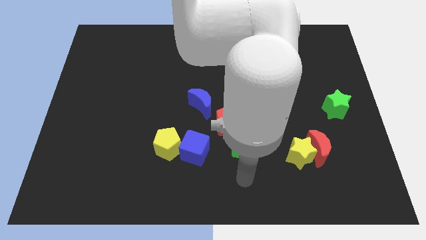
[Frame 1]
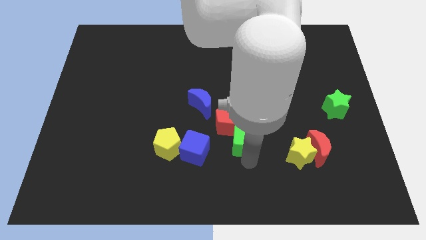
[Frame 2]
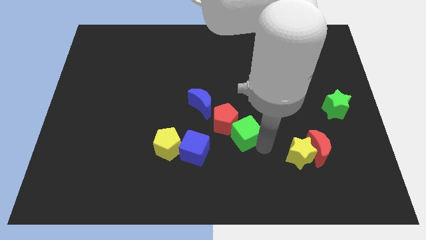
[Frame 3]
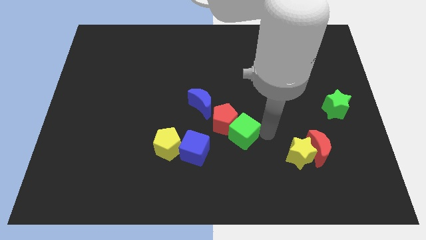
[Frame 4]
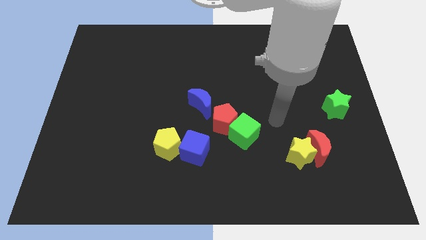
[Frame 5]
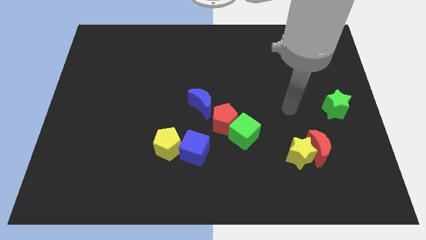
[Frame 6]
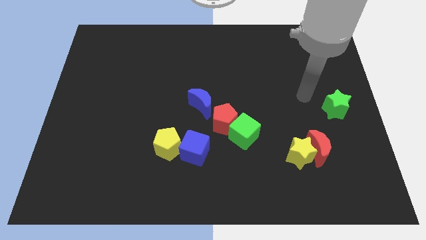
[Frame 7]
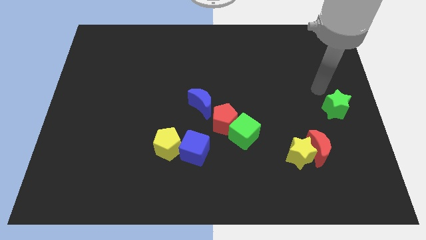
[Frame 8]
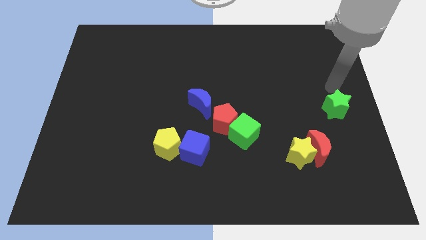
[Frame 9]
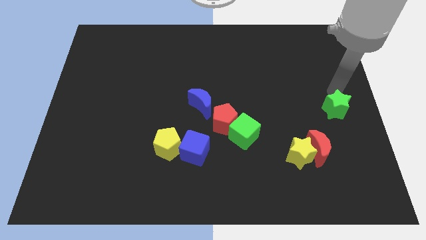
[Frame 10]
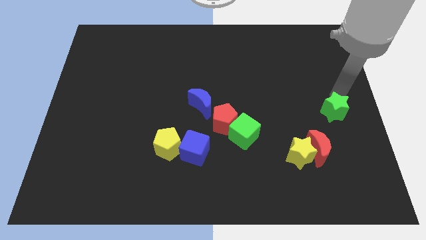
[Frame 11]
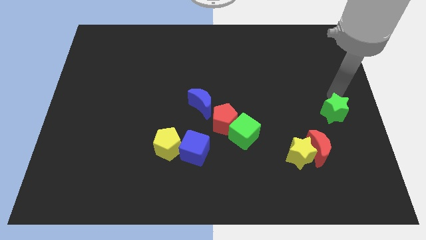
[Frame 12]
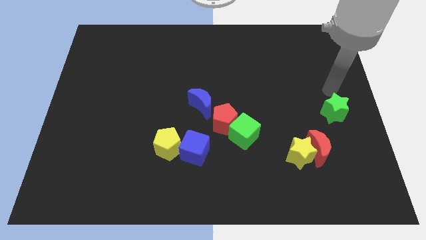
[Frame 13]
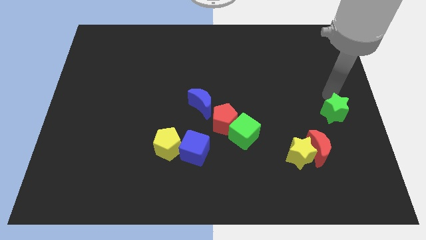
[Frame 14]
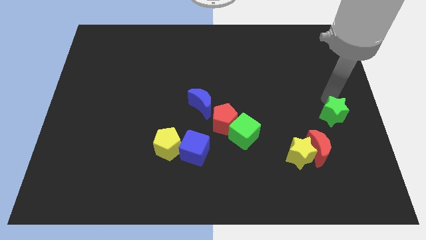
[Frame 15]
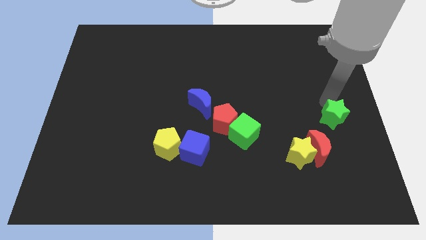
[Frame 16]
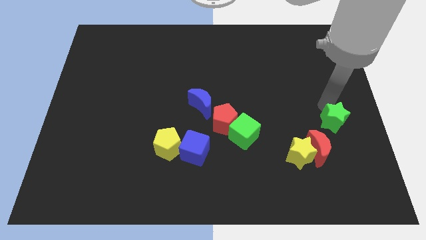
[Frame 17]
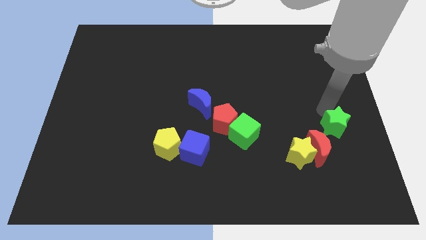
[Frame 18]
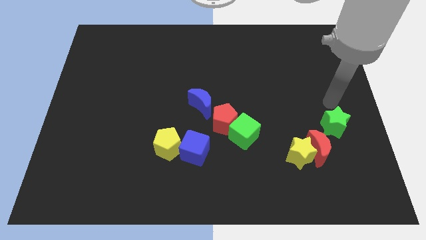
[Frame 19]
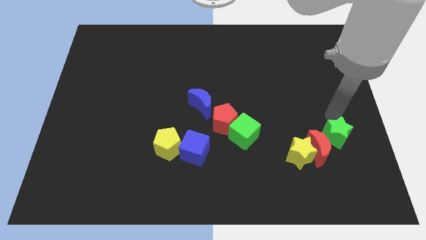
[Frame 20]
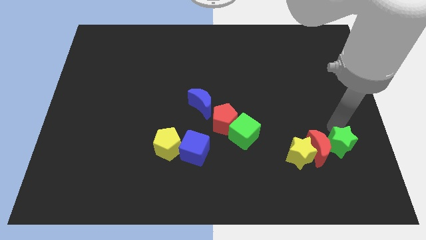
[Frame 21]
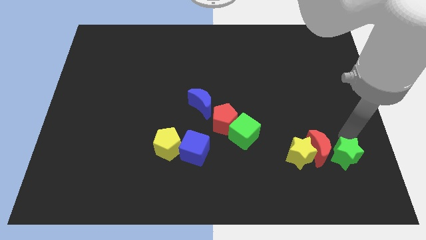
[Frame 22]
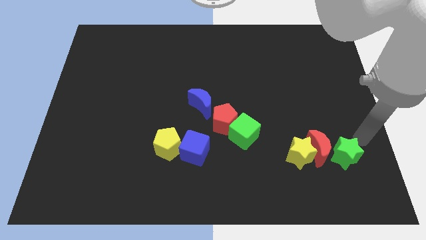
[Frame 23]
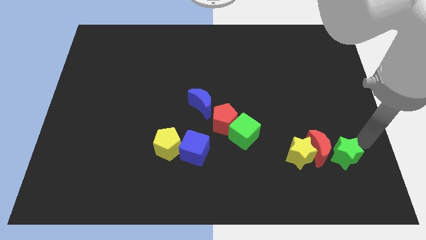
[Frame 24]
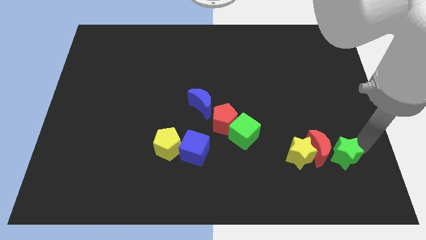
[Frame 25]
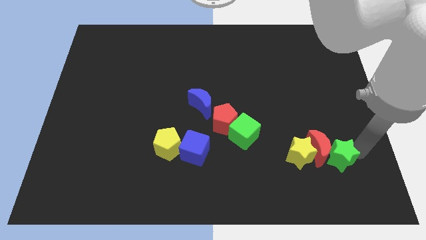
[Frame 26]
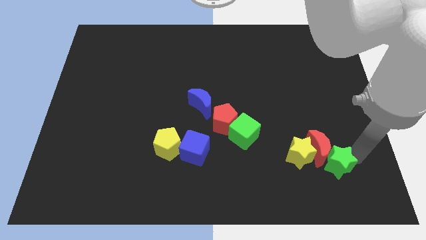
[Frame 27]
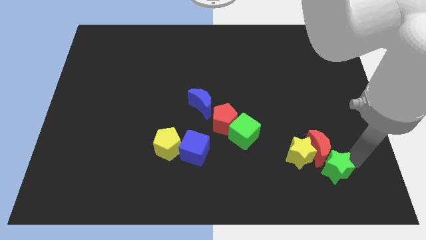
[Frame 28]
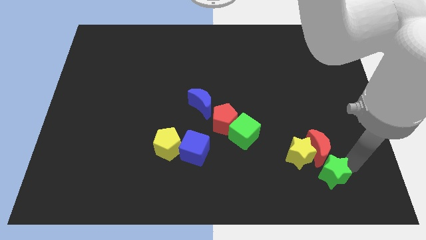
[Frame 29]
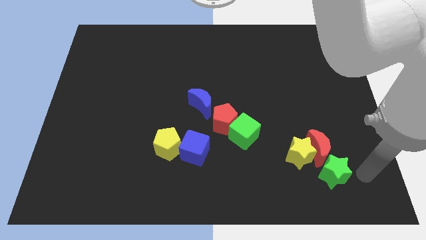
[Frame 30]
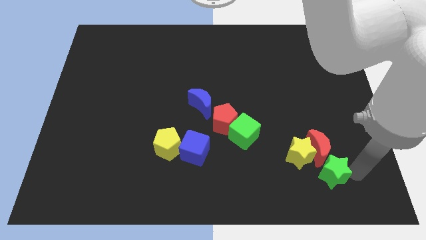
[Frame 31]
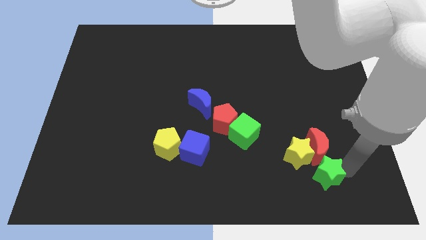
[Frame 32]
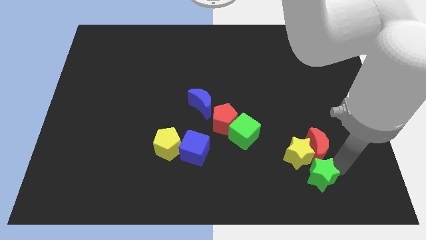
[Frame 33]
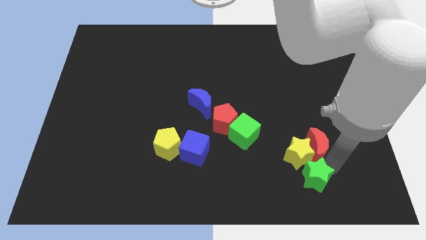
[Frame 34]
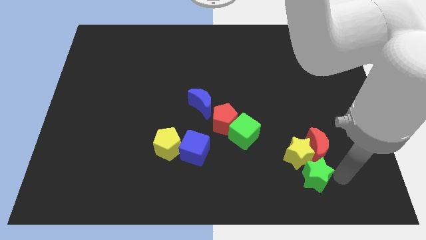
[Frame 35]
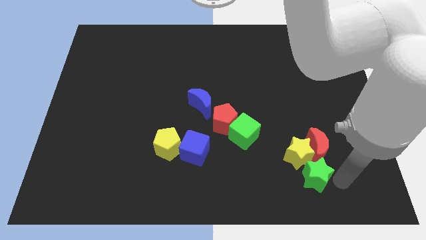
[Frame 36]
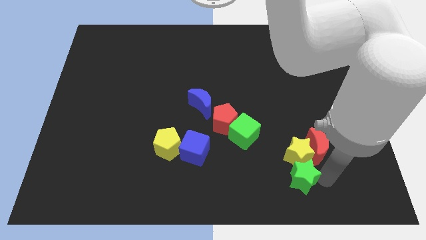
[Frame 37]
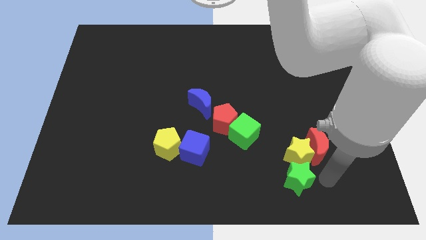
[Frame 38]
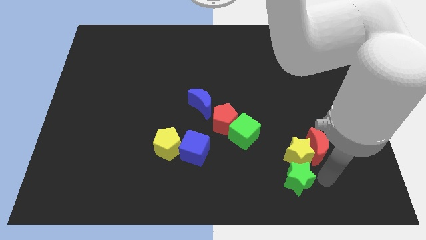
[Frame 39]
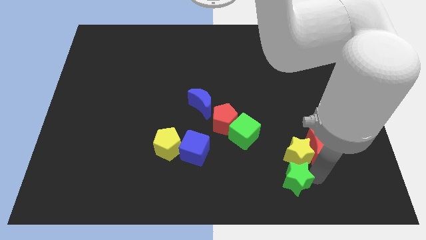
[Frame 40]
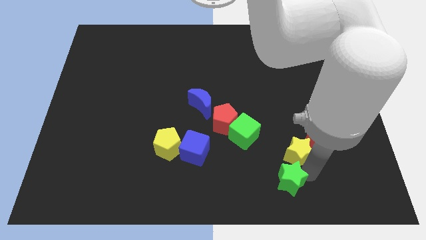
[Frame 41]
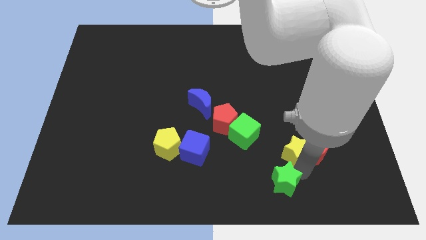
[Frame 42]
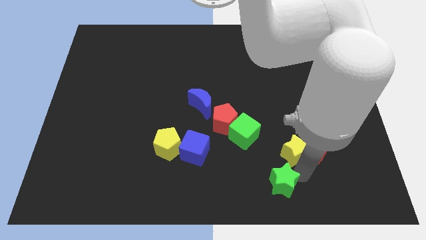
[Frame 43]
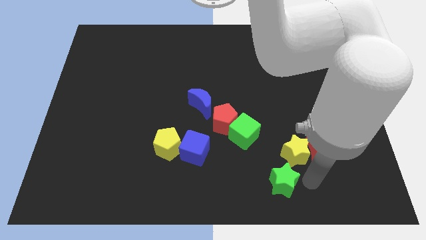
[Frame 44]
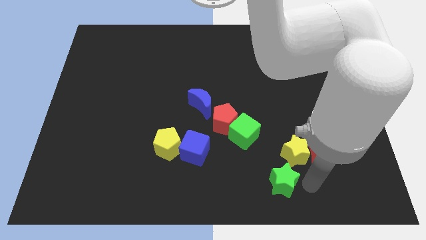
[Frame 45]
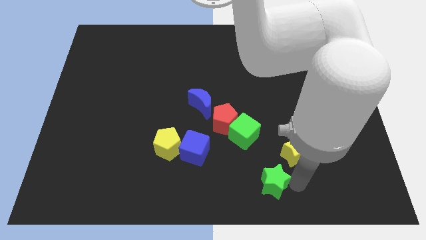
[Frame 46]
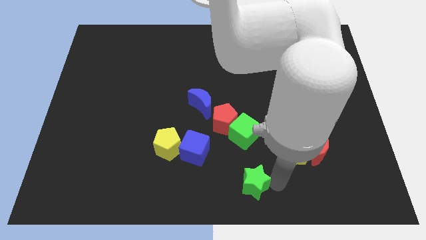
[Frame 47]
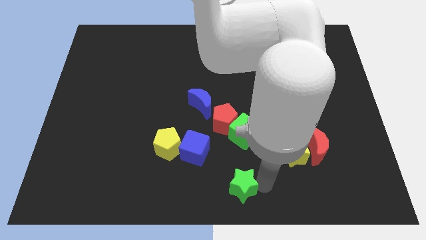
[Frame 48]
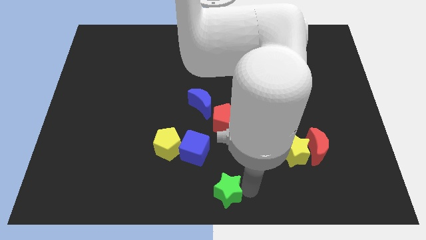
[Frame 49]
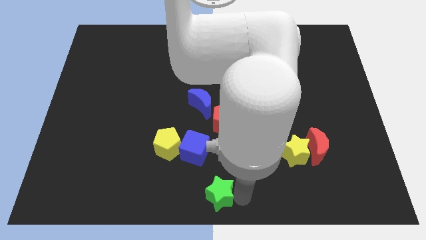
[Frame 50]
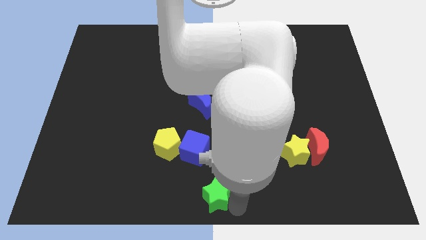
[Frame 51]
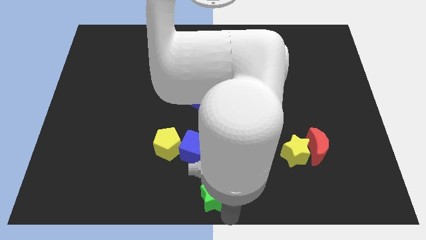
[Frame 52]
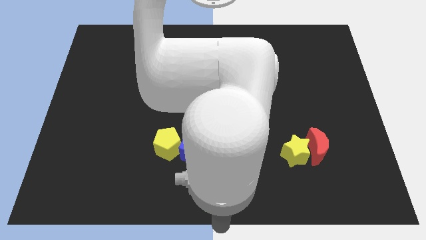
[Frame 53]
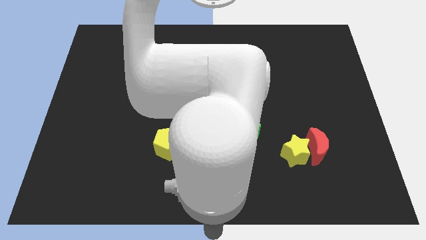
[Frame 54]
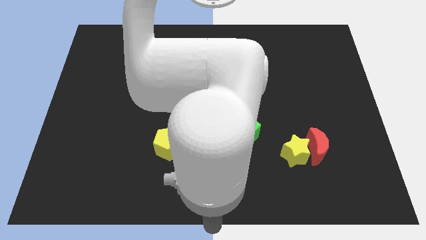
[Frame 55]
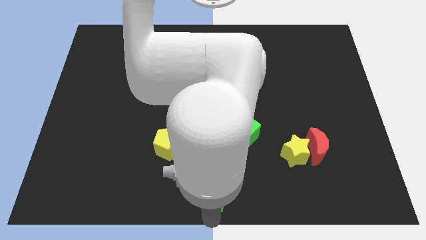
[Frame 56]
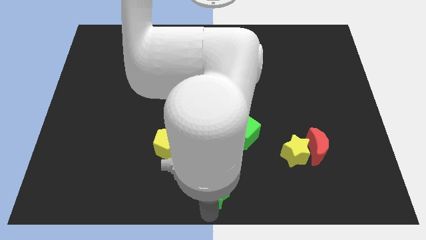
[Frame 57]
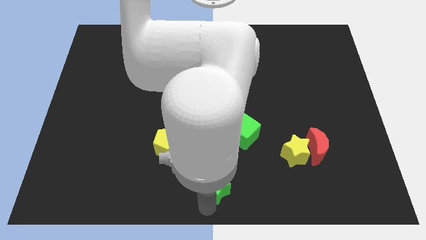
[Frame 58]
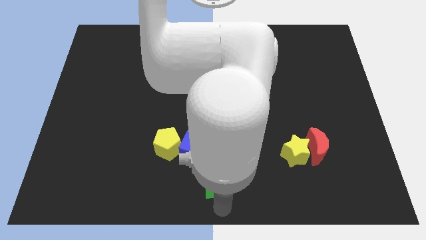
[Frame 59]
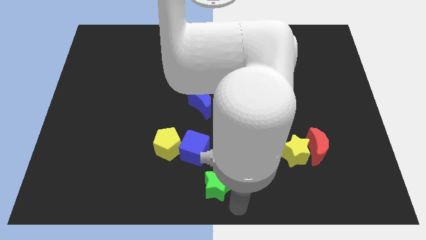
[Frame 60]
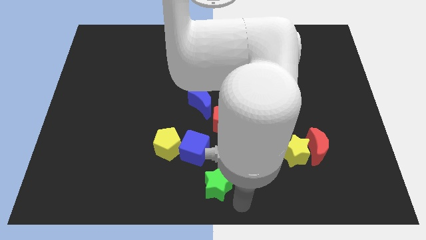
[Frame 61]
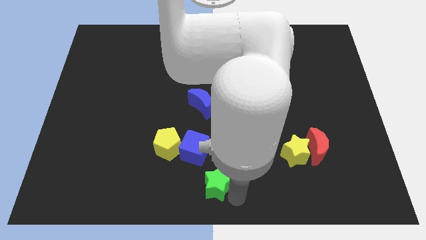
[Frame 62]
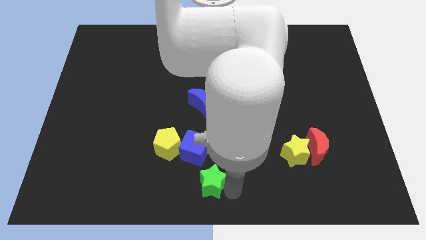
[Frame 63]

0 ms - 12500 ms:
push the green star to the bottom right side of the yellow pentagon

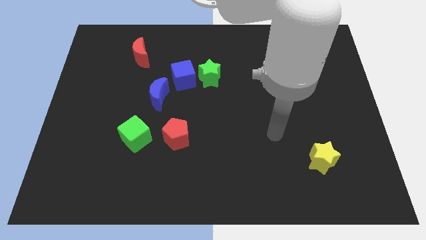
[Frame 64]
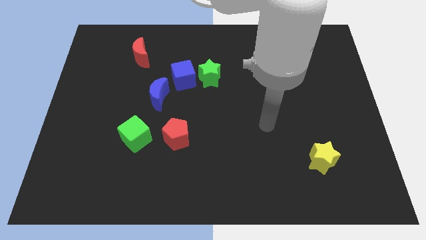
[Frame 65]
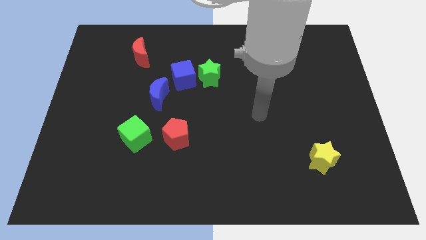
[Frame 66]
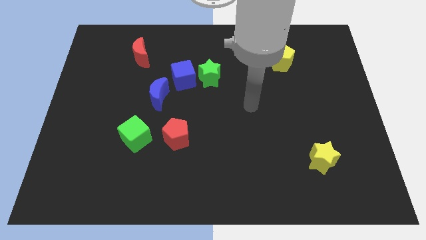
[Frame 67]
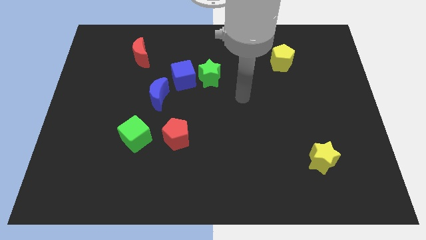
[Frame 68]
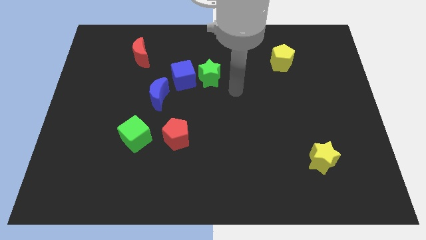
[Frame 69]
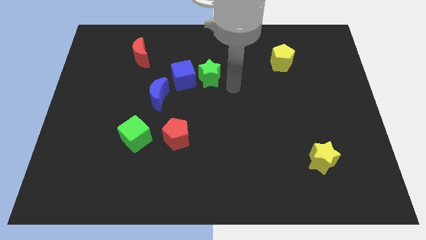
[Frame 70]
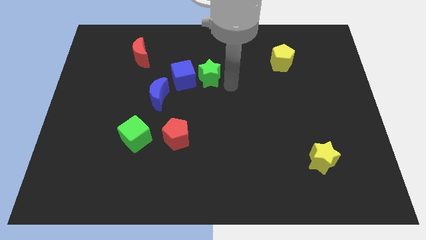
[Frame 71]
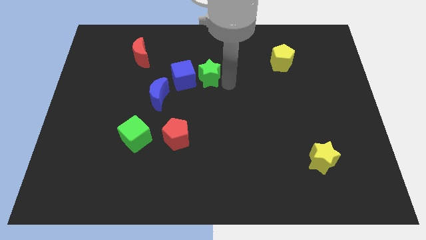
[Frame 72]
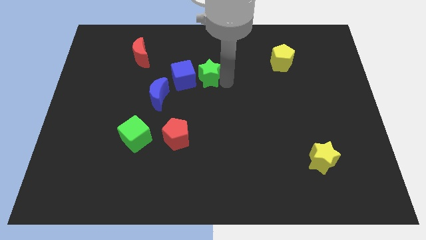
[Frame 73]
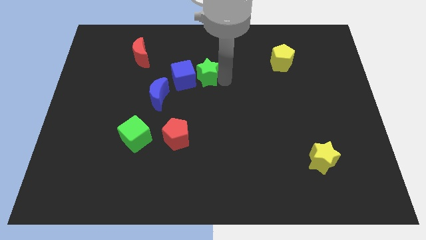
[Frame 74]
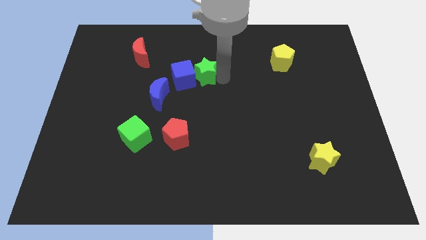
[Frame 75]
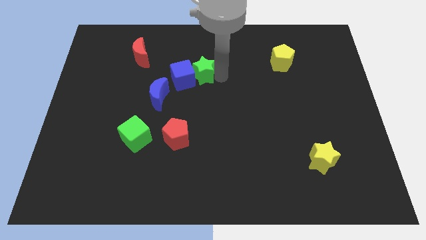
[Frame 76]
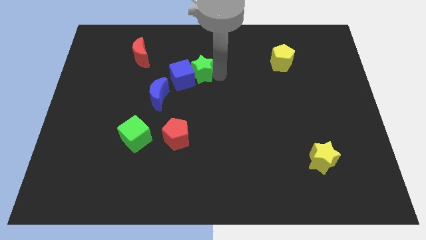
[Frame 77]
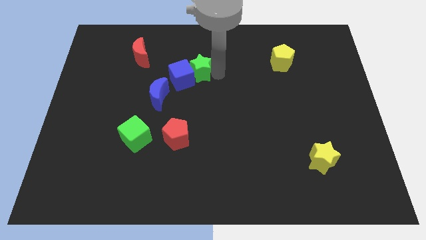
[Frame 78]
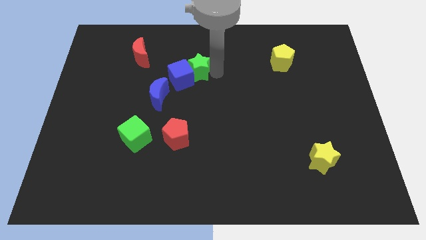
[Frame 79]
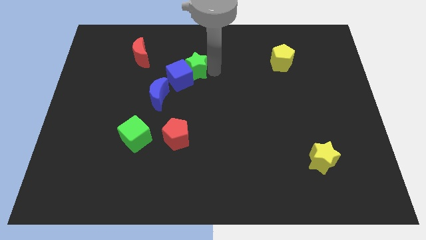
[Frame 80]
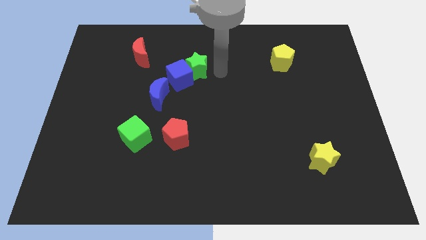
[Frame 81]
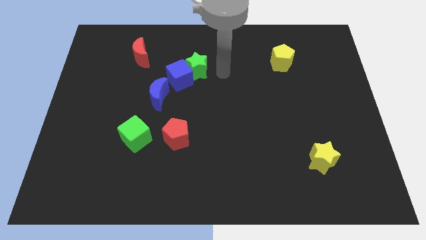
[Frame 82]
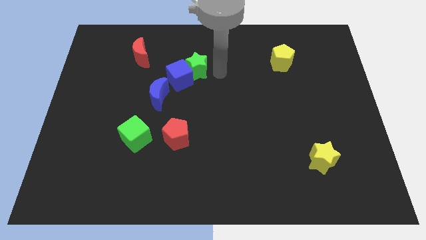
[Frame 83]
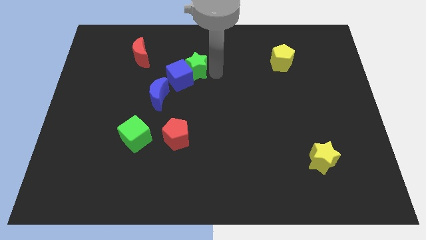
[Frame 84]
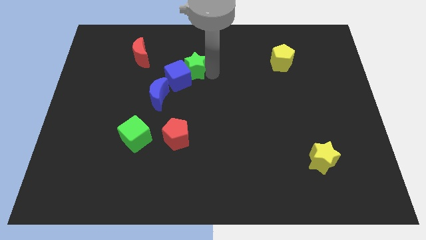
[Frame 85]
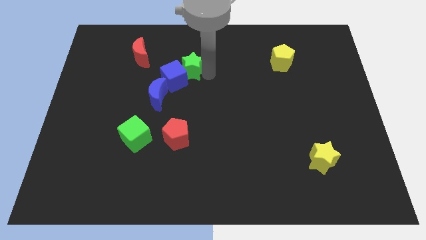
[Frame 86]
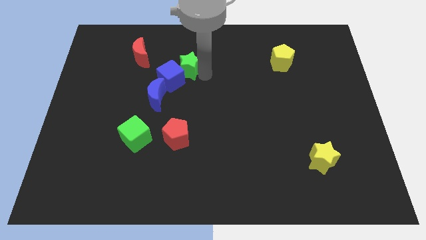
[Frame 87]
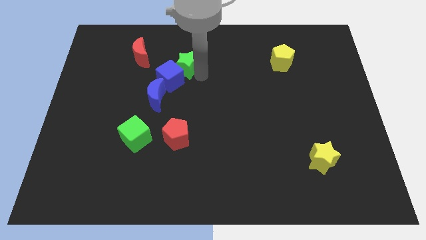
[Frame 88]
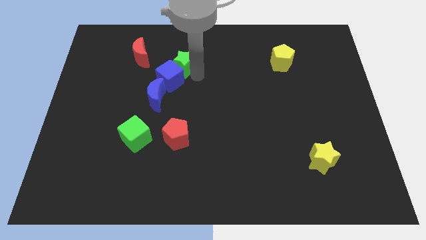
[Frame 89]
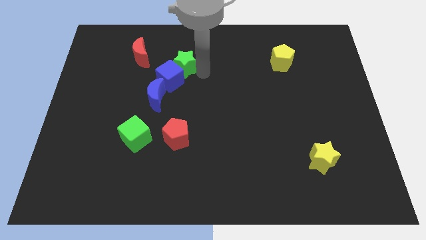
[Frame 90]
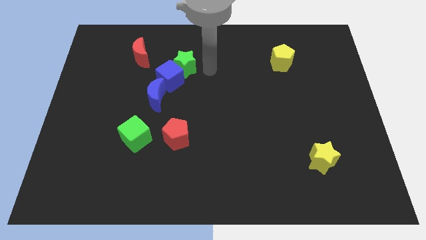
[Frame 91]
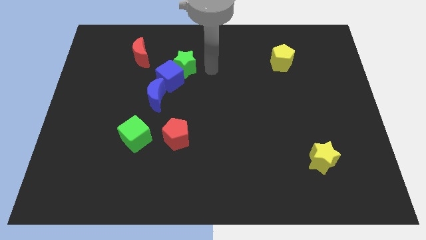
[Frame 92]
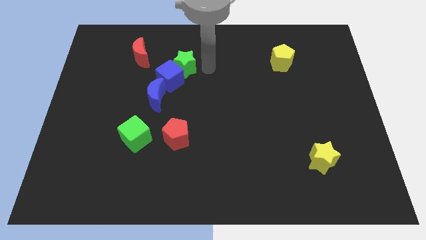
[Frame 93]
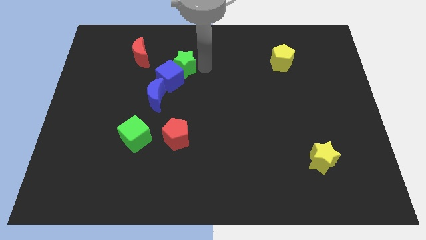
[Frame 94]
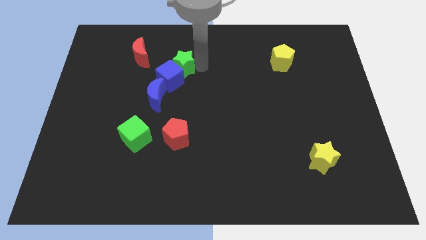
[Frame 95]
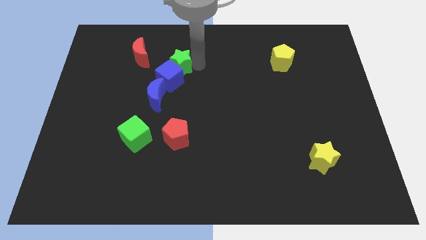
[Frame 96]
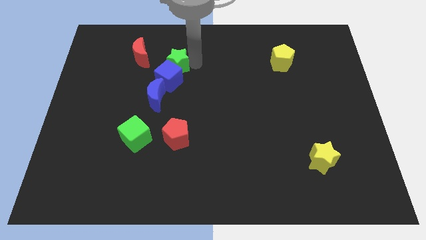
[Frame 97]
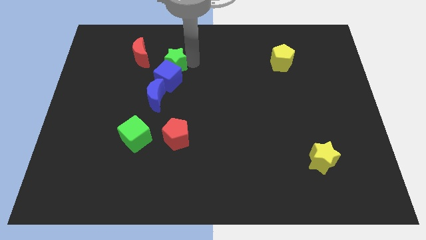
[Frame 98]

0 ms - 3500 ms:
push the green star diagonally up and to the left of the blue cube
